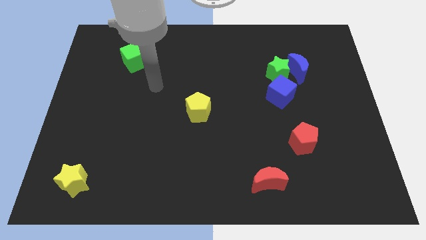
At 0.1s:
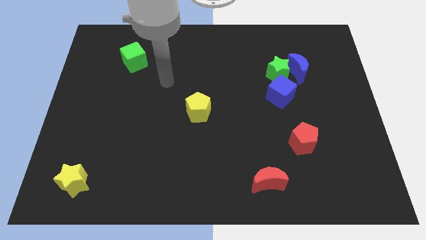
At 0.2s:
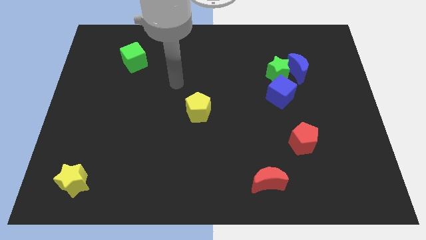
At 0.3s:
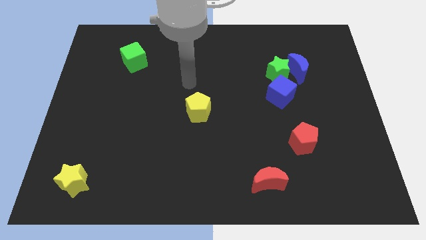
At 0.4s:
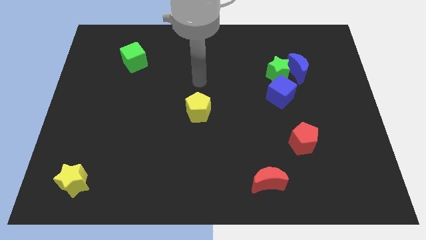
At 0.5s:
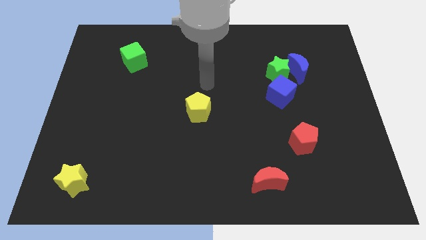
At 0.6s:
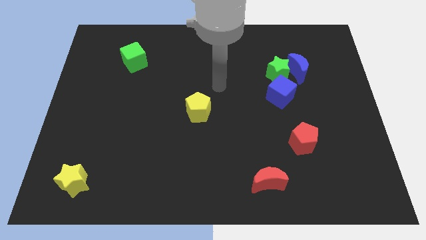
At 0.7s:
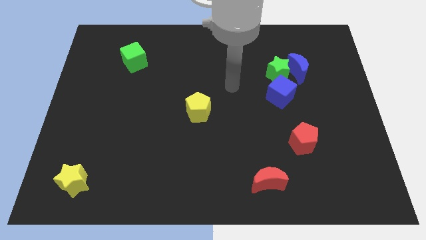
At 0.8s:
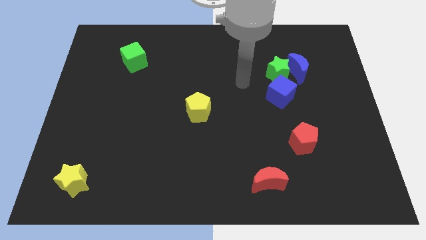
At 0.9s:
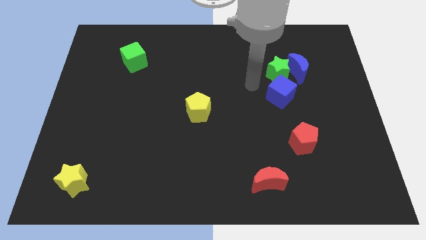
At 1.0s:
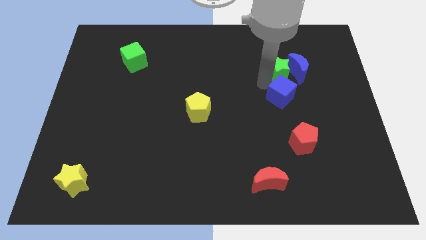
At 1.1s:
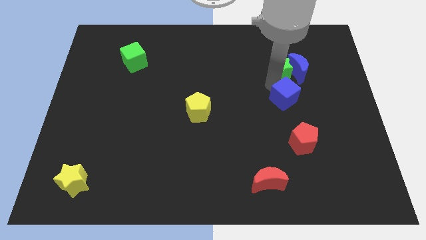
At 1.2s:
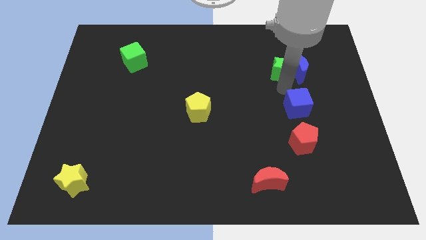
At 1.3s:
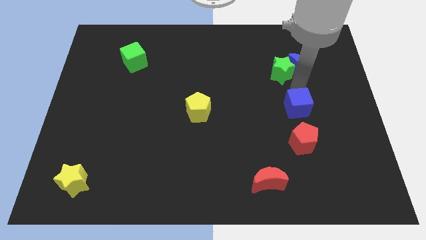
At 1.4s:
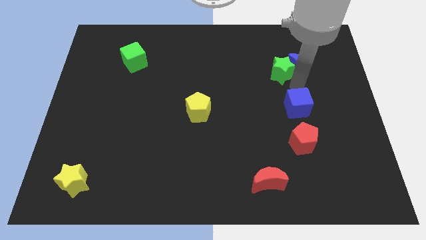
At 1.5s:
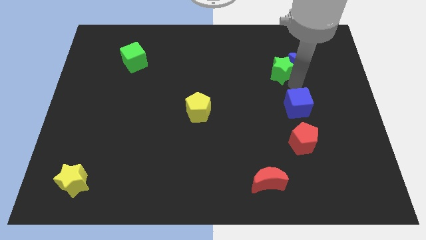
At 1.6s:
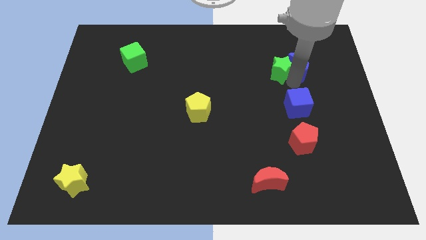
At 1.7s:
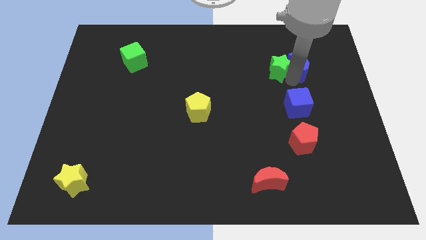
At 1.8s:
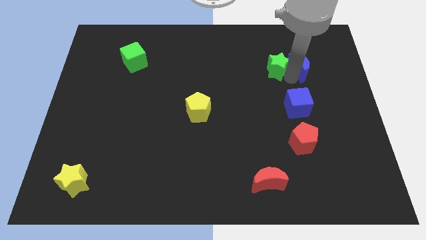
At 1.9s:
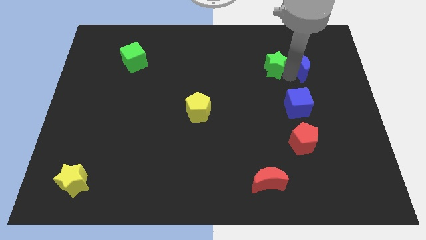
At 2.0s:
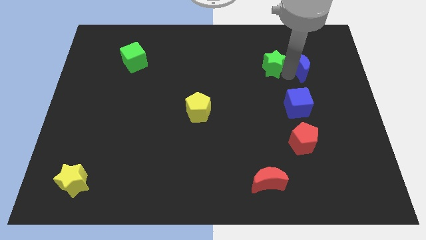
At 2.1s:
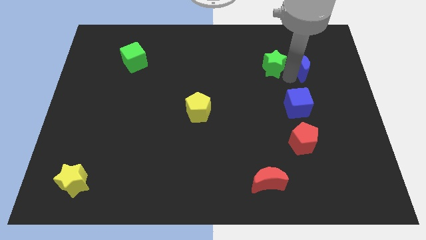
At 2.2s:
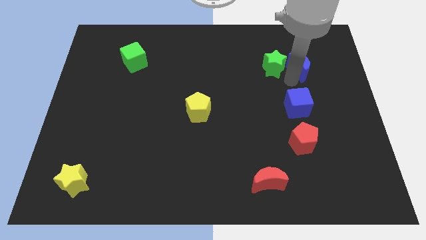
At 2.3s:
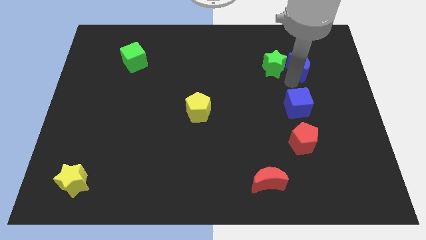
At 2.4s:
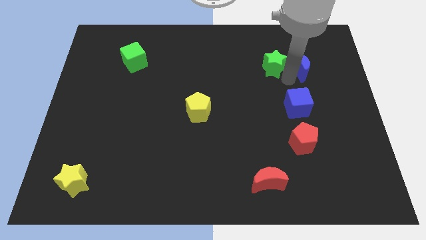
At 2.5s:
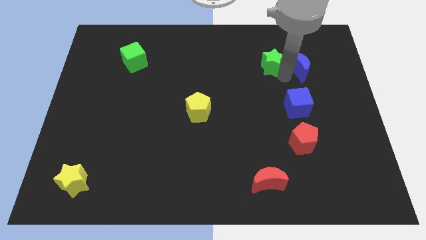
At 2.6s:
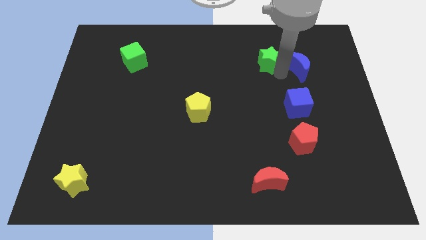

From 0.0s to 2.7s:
move the green star away from the blue moon and blue cube

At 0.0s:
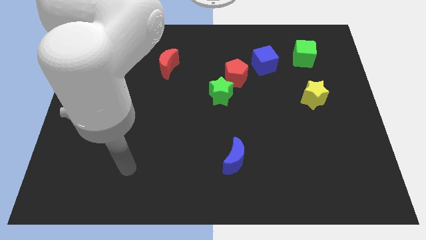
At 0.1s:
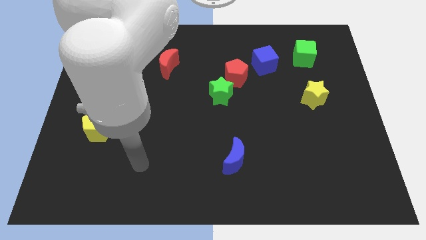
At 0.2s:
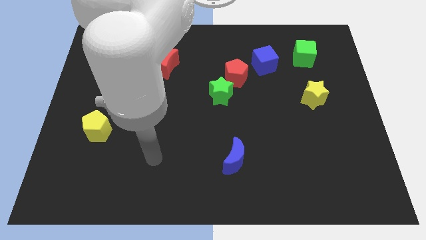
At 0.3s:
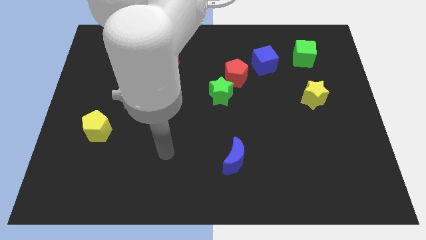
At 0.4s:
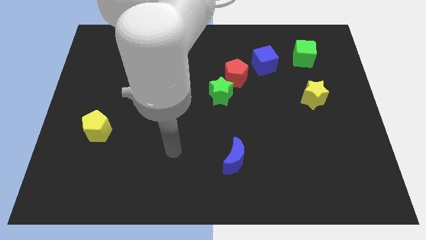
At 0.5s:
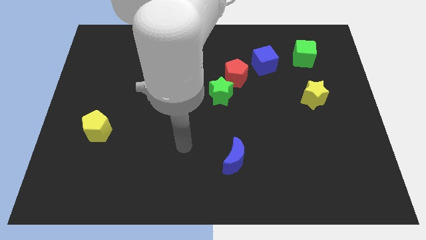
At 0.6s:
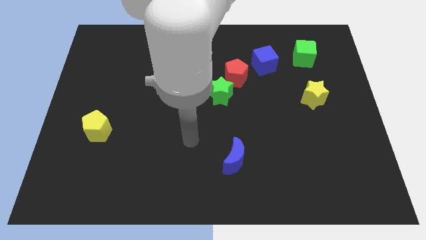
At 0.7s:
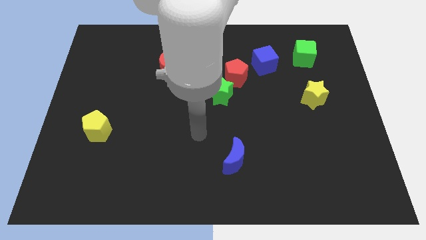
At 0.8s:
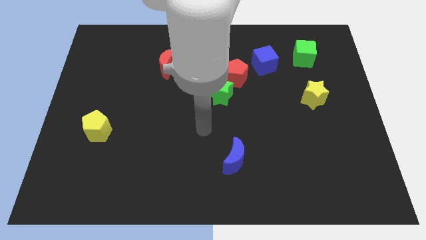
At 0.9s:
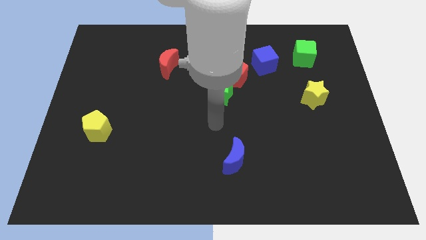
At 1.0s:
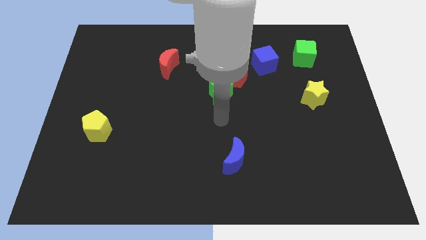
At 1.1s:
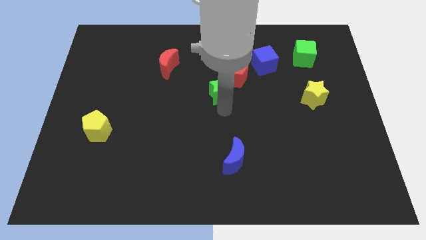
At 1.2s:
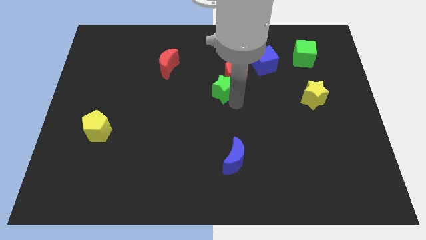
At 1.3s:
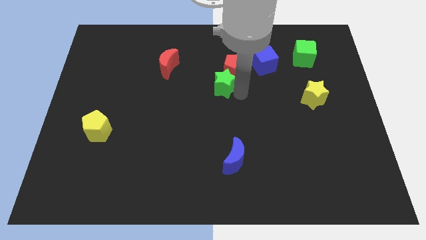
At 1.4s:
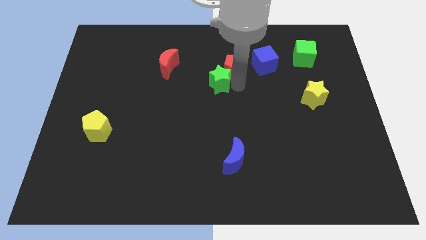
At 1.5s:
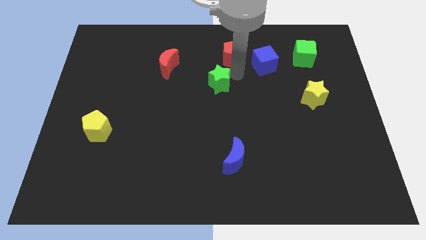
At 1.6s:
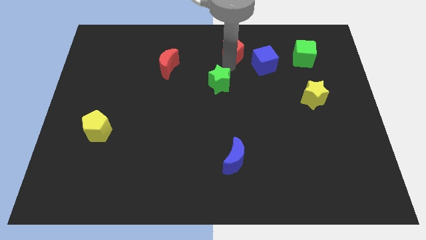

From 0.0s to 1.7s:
move the green star away from the red pentagon

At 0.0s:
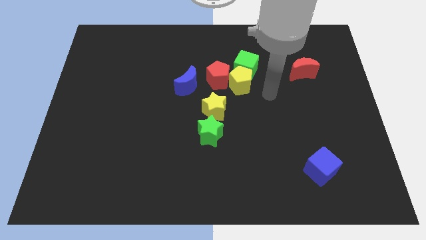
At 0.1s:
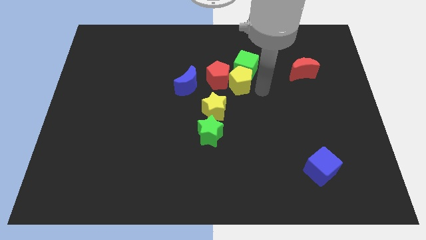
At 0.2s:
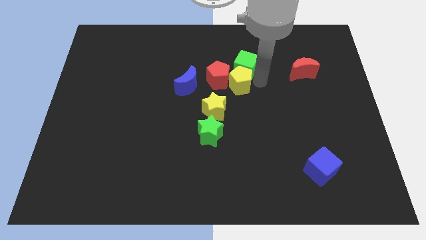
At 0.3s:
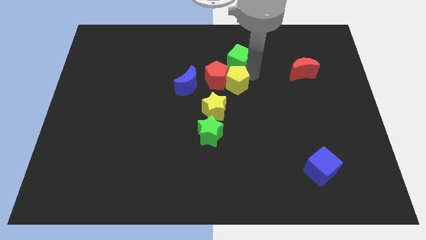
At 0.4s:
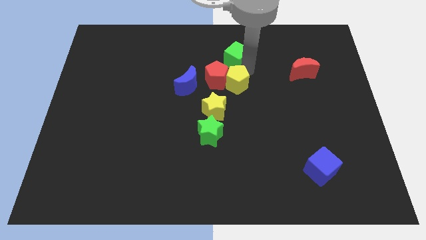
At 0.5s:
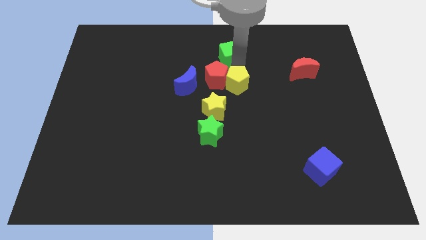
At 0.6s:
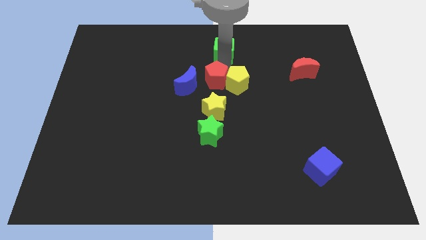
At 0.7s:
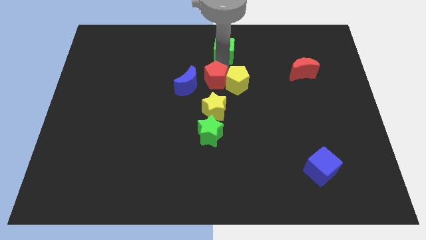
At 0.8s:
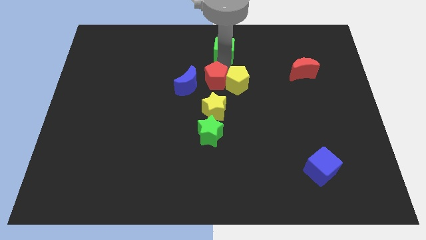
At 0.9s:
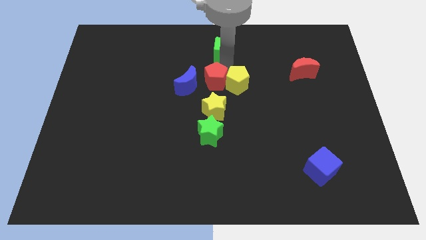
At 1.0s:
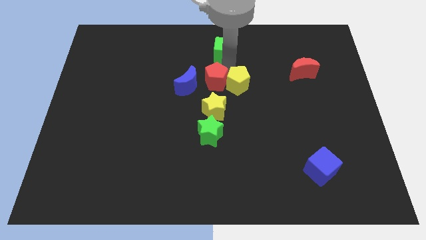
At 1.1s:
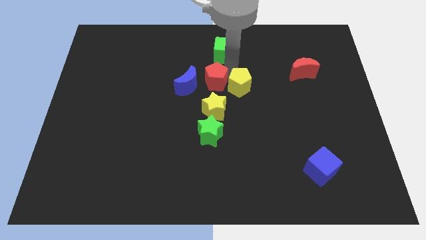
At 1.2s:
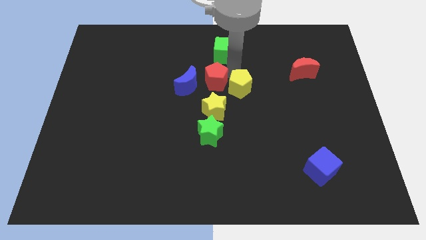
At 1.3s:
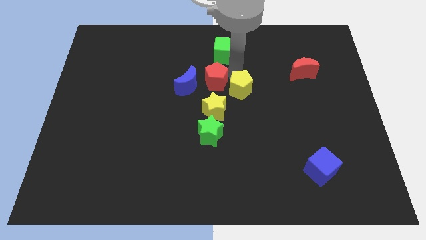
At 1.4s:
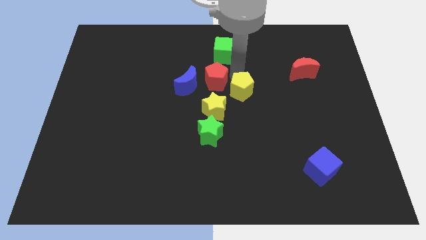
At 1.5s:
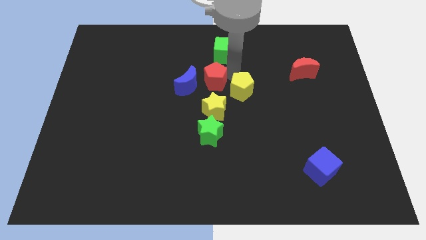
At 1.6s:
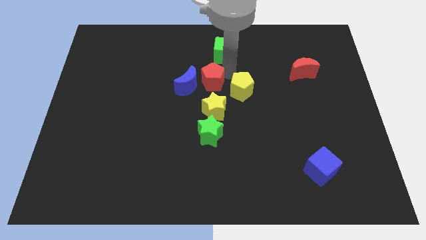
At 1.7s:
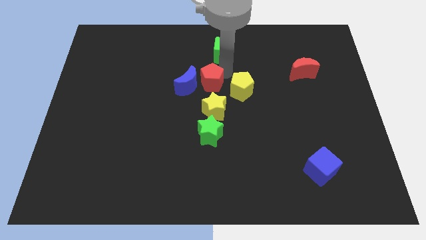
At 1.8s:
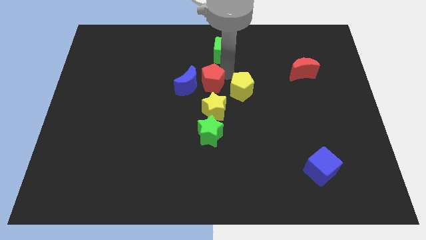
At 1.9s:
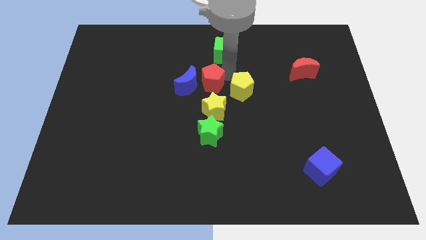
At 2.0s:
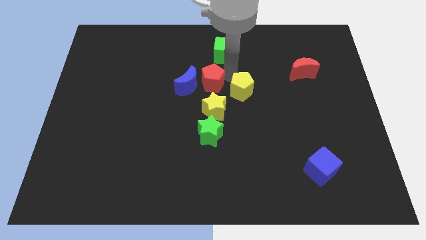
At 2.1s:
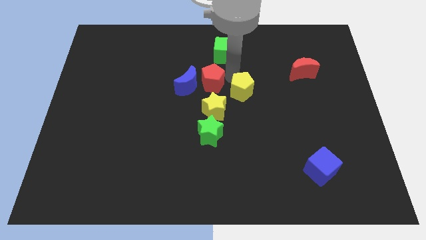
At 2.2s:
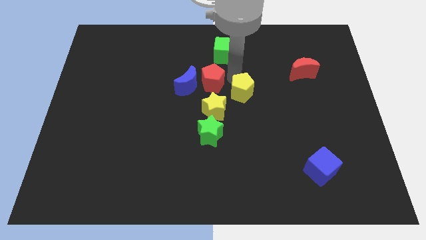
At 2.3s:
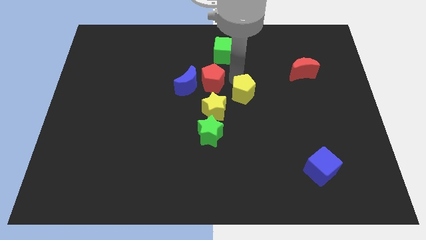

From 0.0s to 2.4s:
separate the yellow pentagon from the green cube and red pentagon

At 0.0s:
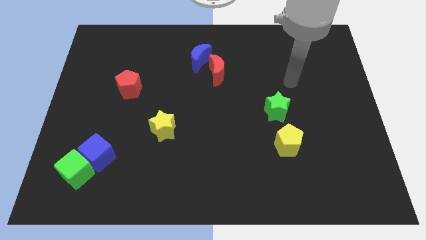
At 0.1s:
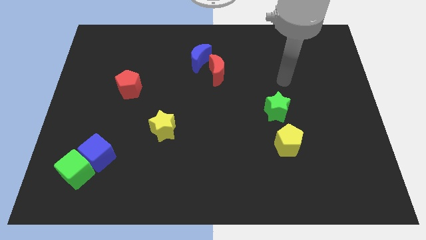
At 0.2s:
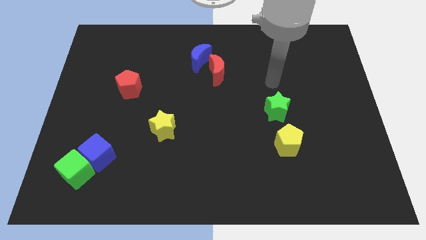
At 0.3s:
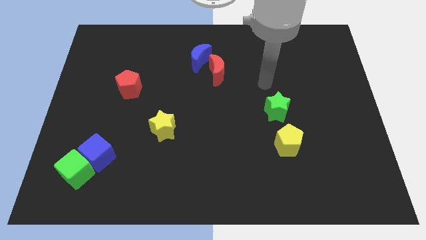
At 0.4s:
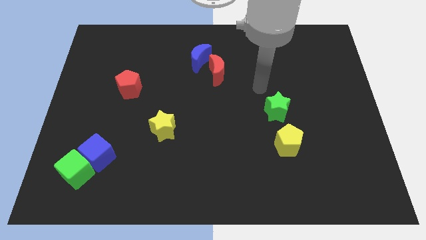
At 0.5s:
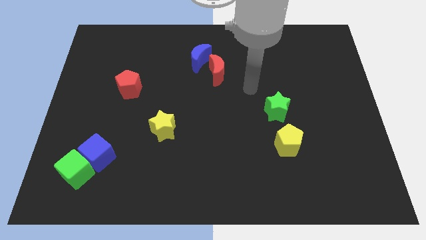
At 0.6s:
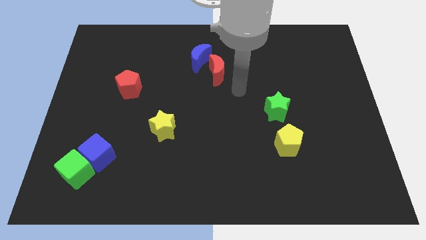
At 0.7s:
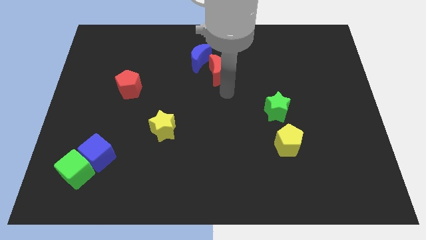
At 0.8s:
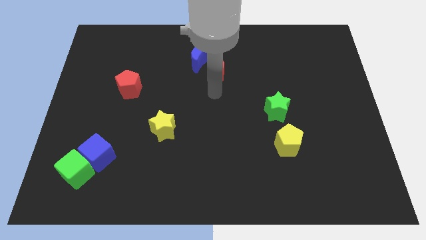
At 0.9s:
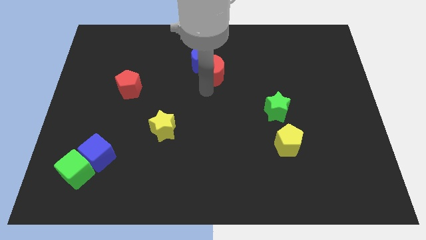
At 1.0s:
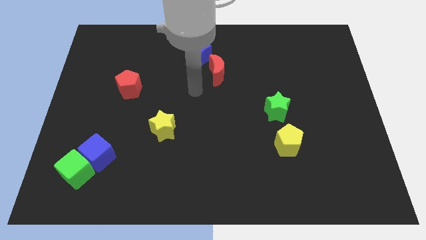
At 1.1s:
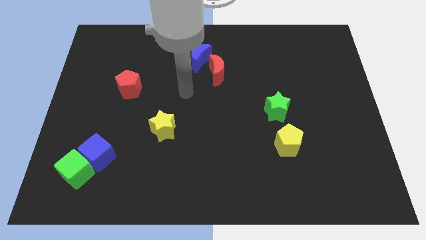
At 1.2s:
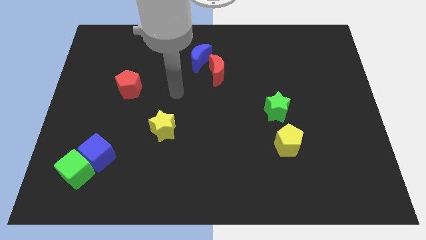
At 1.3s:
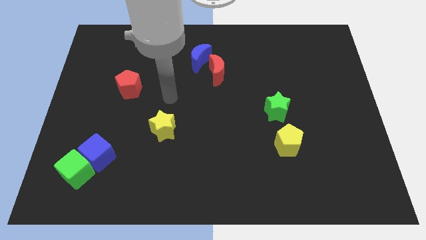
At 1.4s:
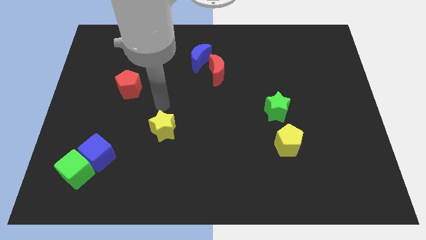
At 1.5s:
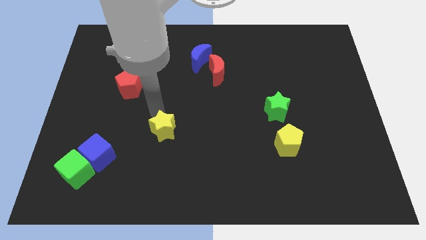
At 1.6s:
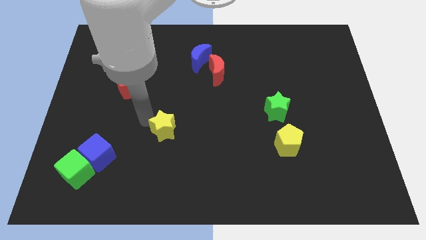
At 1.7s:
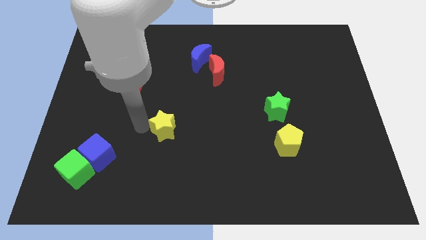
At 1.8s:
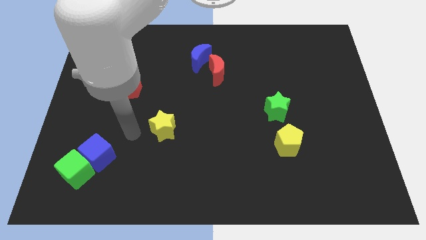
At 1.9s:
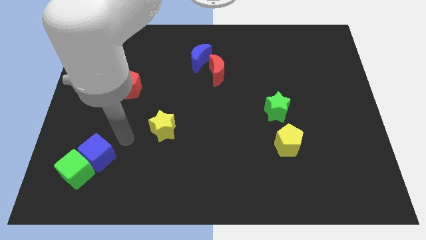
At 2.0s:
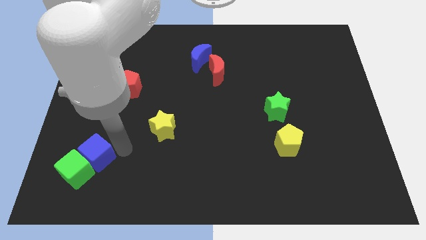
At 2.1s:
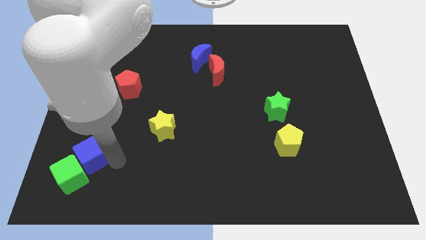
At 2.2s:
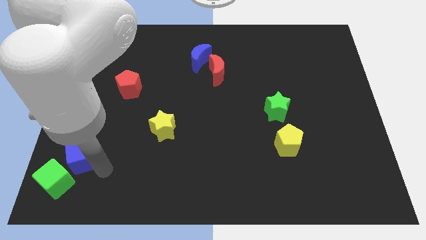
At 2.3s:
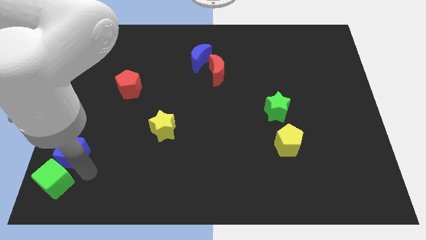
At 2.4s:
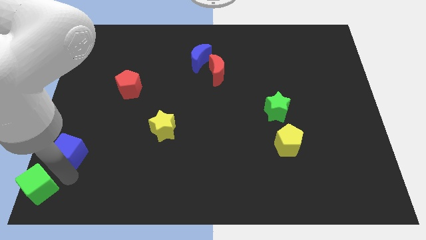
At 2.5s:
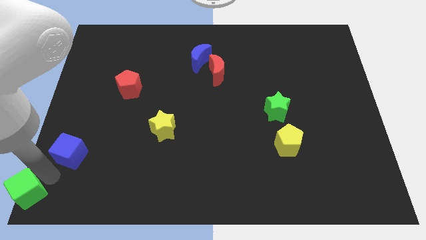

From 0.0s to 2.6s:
pull the blue cube apart from the green cube
